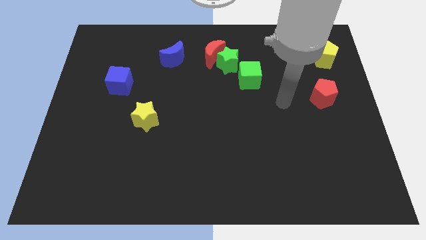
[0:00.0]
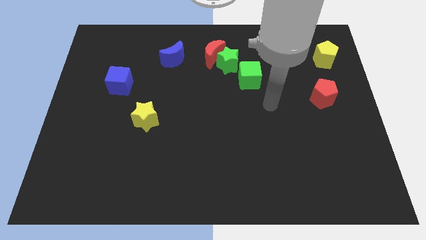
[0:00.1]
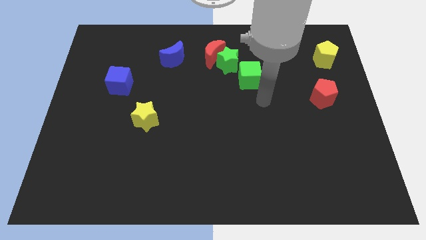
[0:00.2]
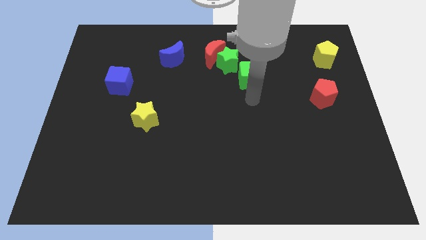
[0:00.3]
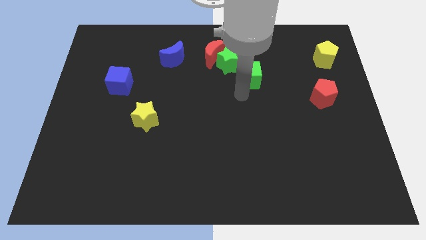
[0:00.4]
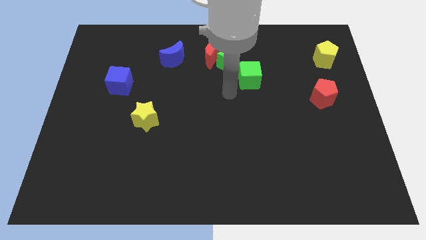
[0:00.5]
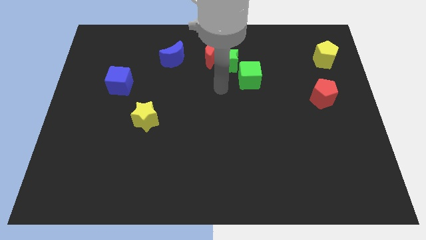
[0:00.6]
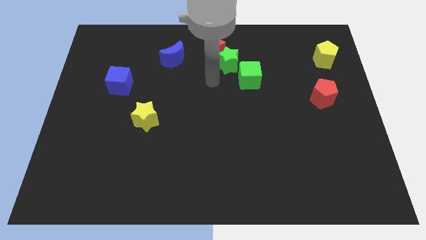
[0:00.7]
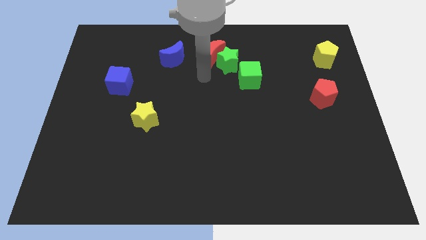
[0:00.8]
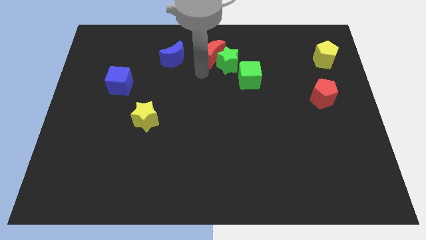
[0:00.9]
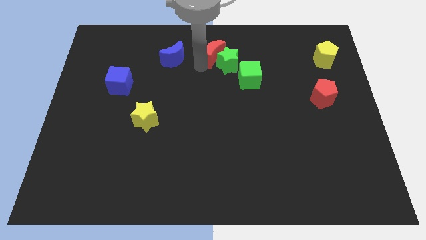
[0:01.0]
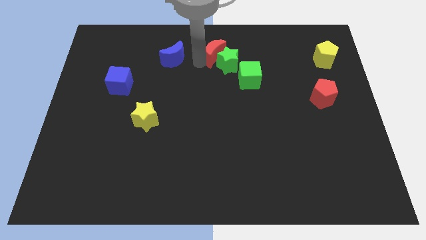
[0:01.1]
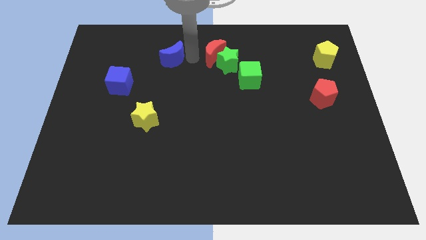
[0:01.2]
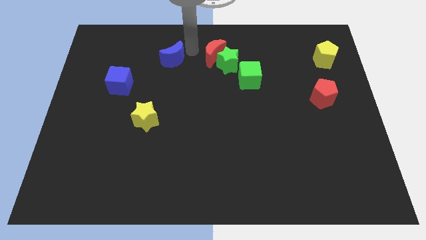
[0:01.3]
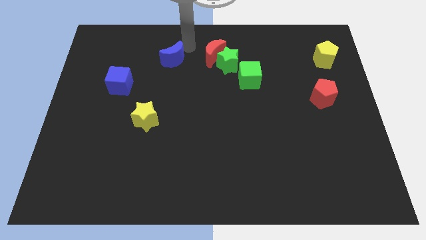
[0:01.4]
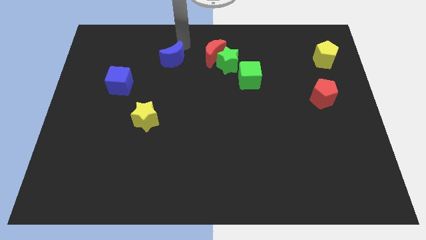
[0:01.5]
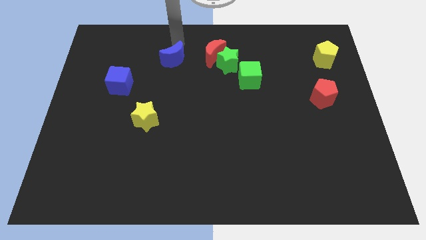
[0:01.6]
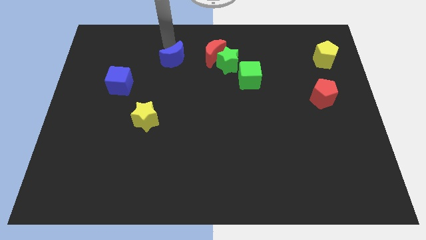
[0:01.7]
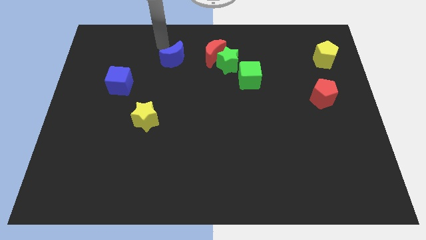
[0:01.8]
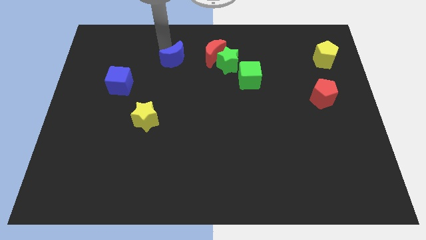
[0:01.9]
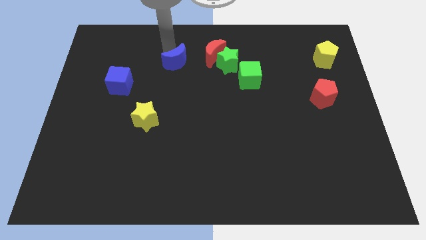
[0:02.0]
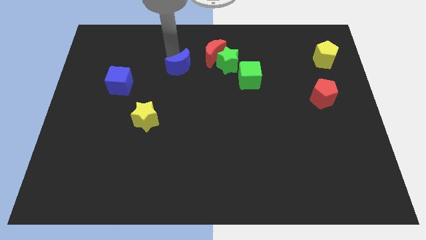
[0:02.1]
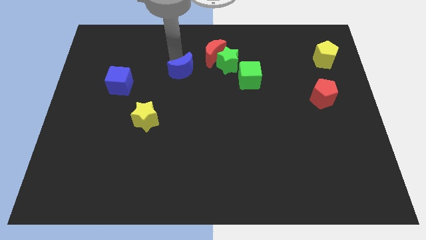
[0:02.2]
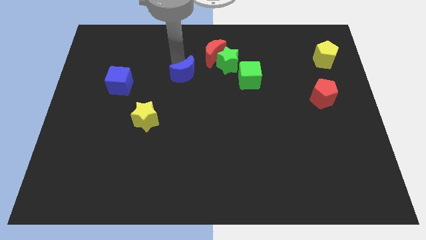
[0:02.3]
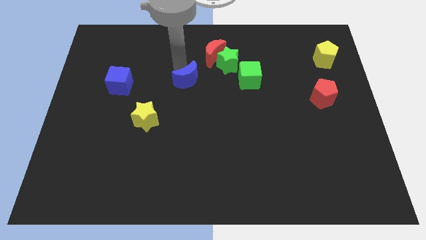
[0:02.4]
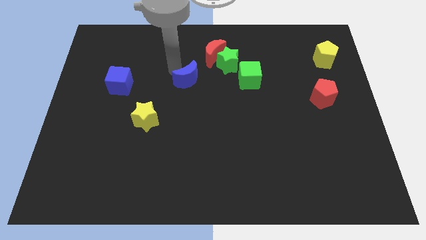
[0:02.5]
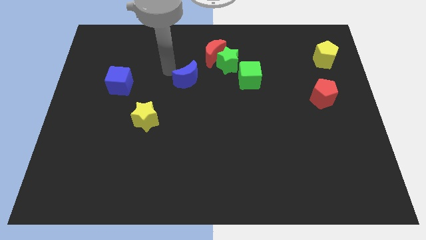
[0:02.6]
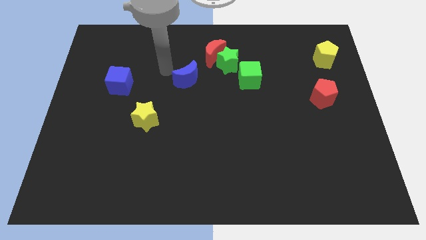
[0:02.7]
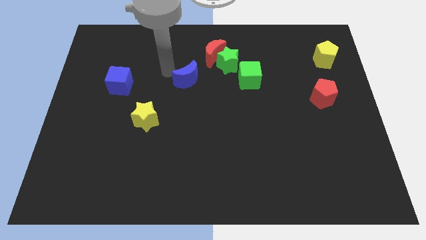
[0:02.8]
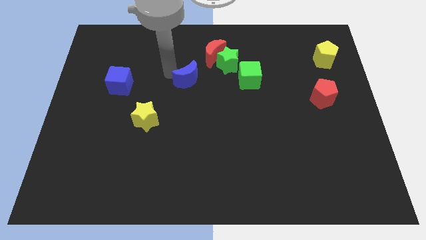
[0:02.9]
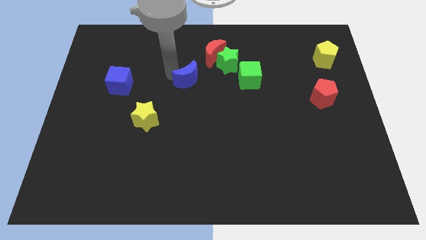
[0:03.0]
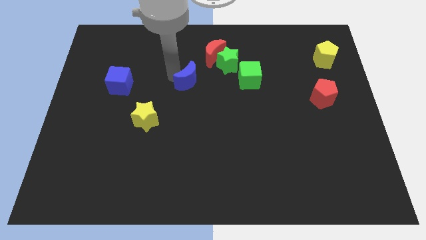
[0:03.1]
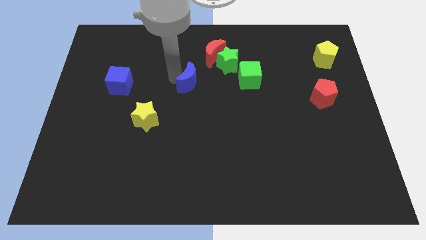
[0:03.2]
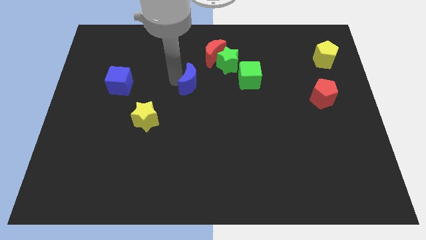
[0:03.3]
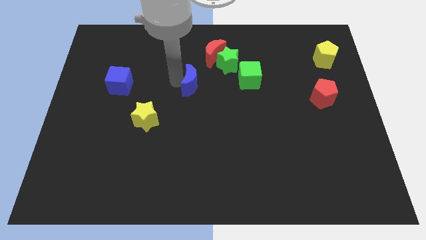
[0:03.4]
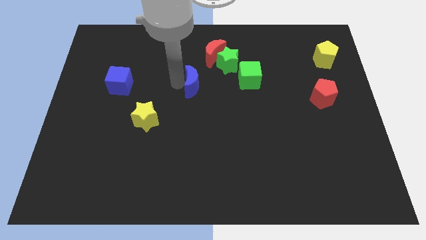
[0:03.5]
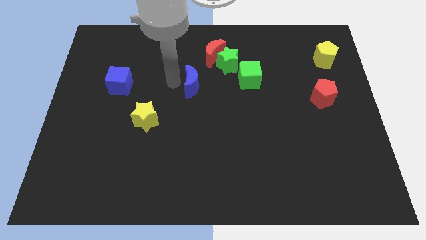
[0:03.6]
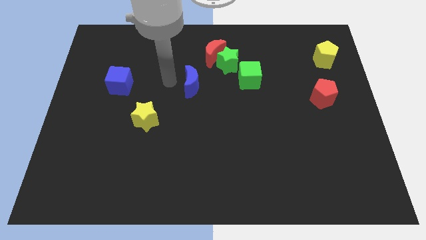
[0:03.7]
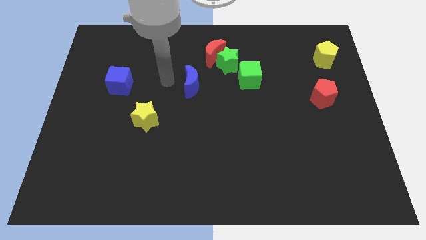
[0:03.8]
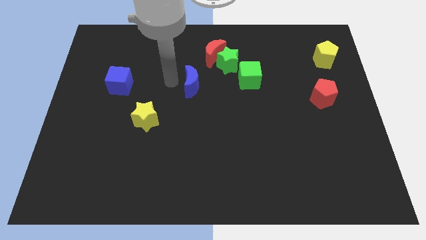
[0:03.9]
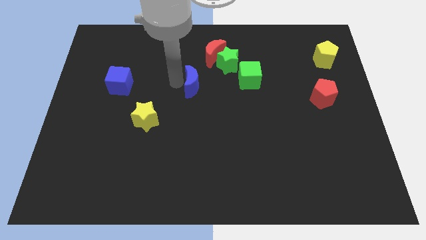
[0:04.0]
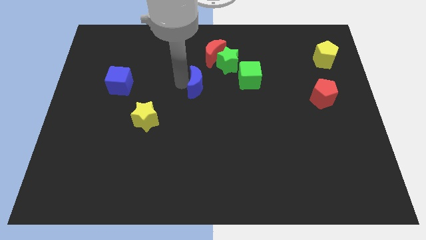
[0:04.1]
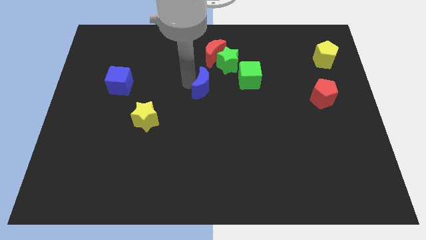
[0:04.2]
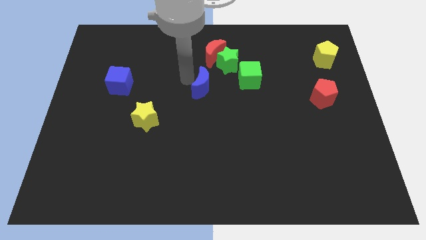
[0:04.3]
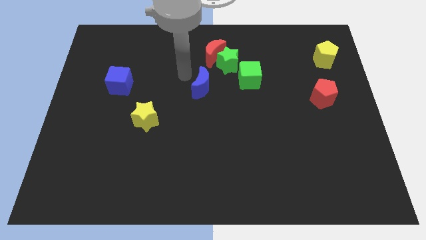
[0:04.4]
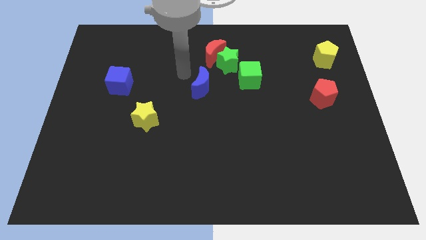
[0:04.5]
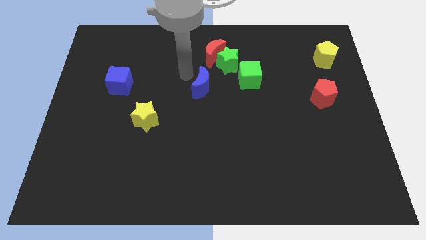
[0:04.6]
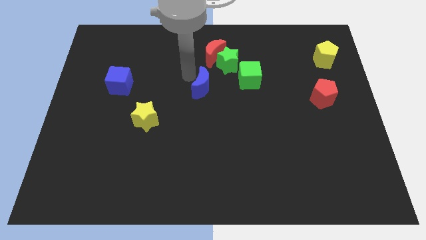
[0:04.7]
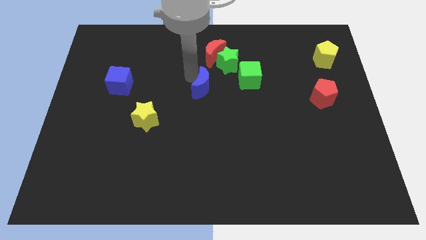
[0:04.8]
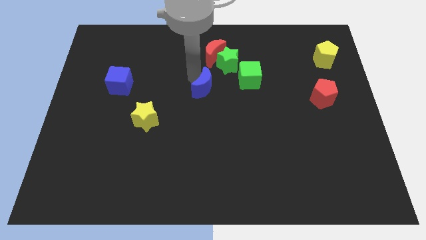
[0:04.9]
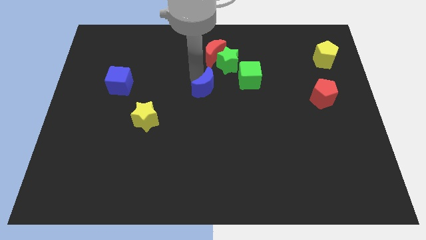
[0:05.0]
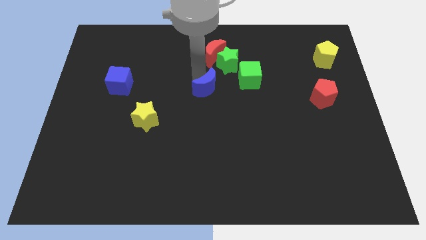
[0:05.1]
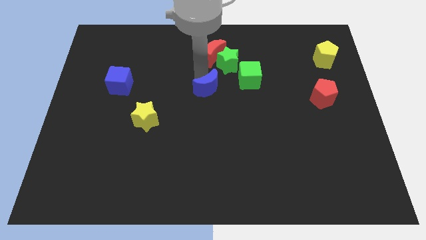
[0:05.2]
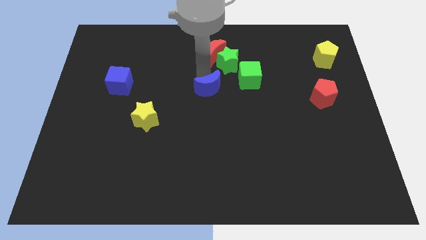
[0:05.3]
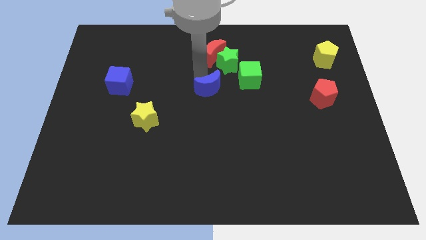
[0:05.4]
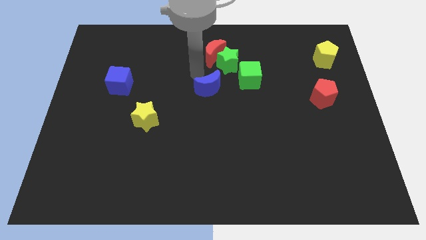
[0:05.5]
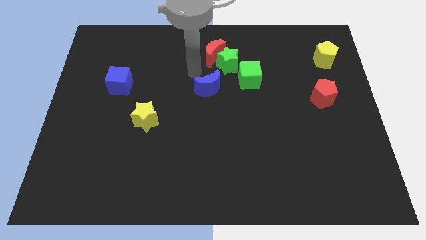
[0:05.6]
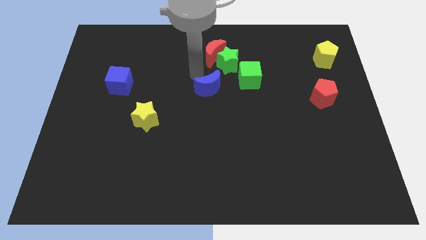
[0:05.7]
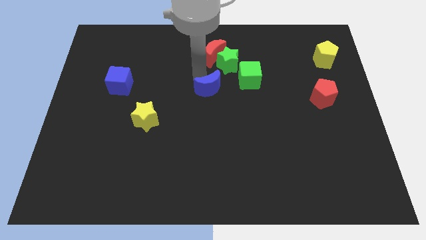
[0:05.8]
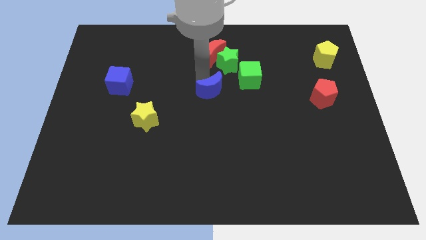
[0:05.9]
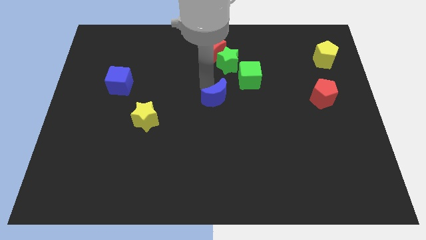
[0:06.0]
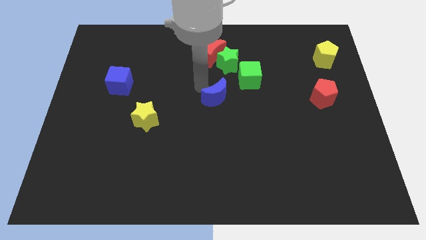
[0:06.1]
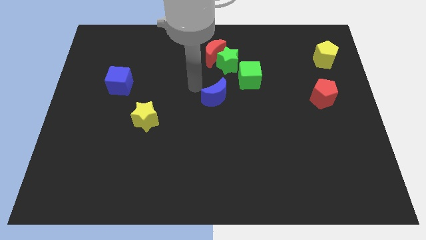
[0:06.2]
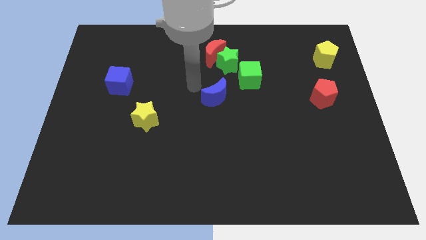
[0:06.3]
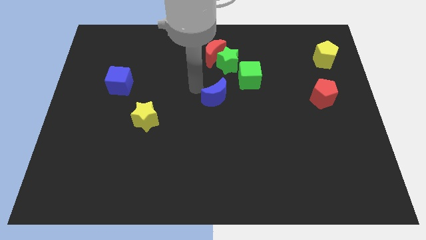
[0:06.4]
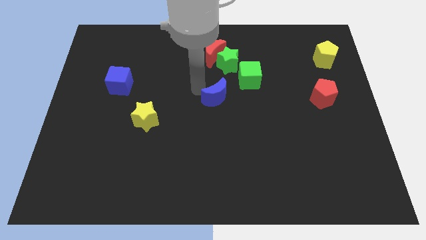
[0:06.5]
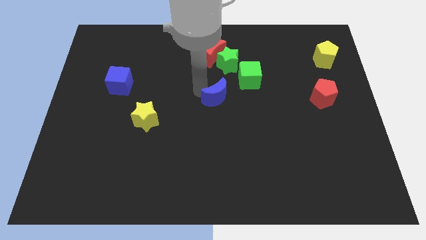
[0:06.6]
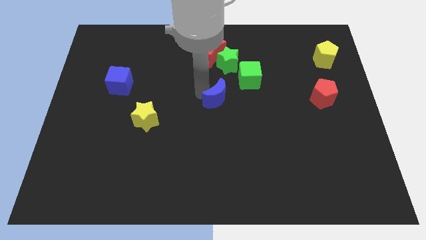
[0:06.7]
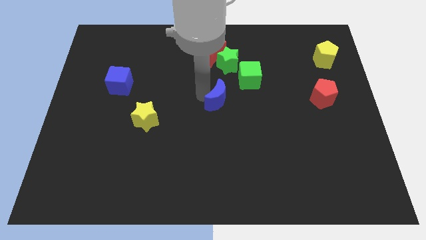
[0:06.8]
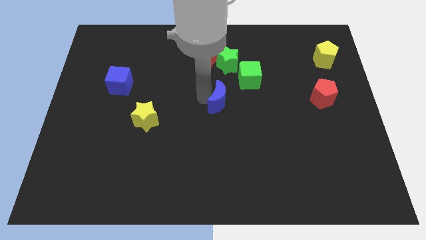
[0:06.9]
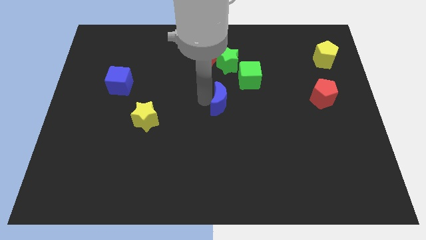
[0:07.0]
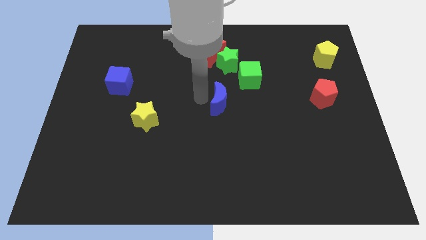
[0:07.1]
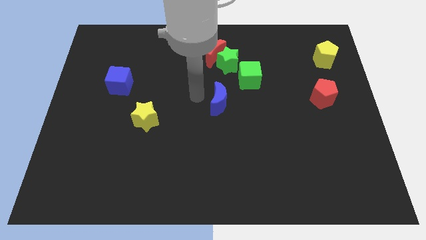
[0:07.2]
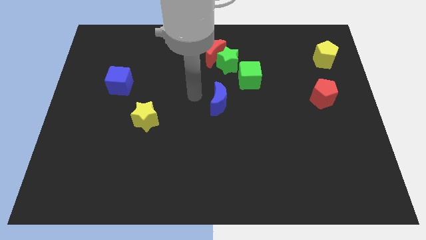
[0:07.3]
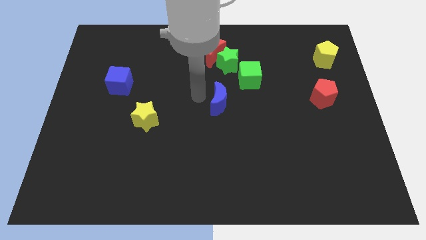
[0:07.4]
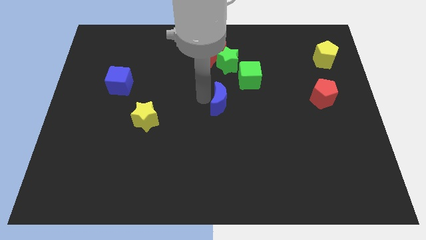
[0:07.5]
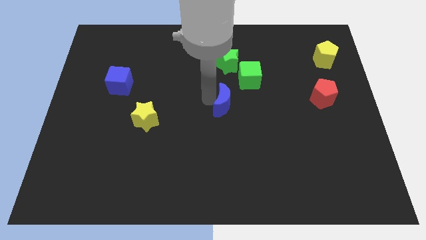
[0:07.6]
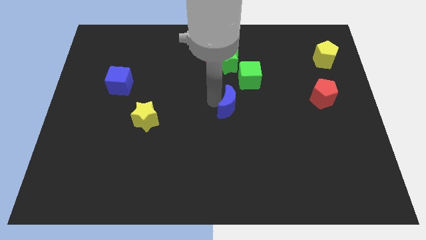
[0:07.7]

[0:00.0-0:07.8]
push the blue moon down and right diagonally

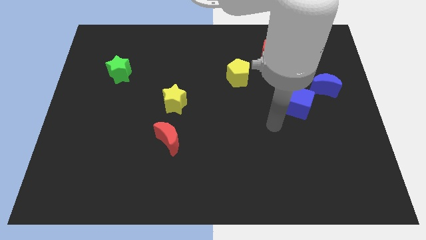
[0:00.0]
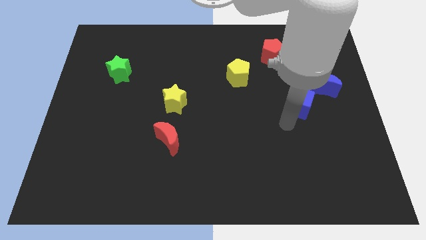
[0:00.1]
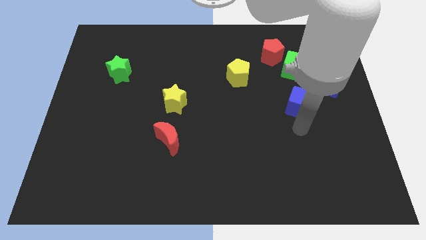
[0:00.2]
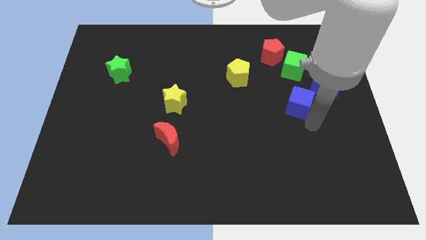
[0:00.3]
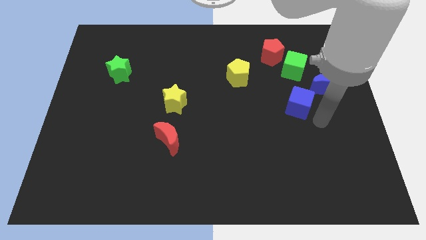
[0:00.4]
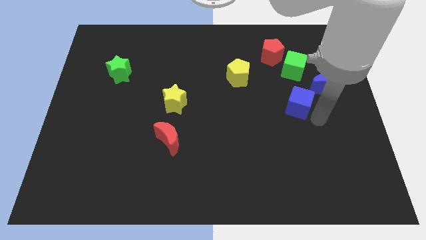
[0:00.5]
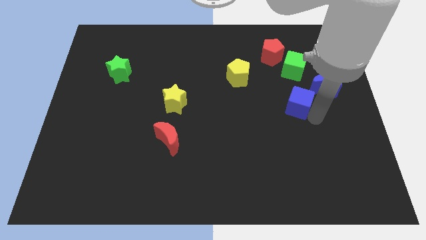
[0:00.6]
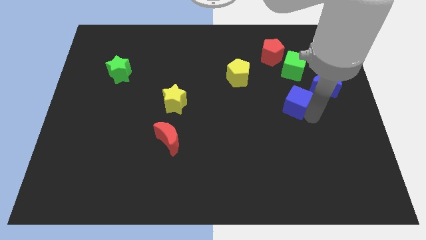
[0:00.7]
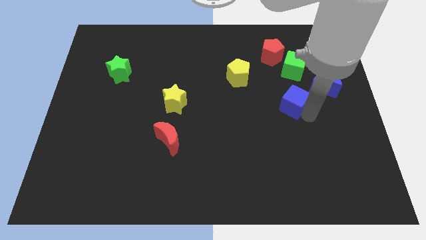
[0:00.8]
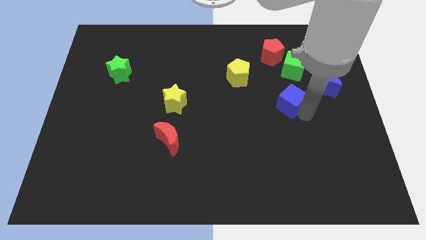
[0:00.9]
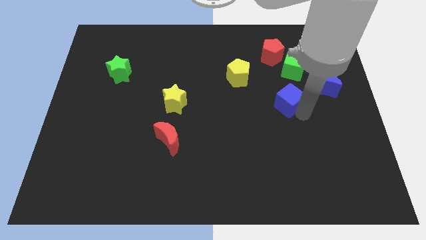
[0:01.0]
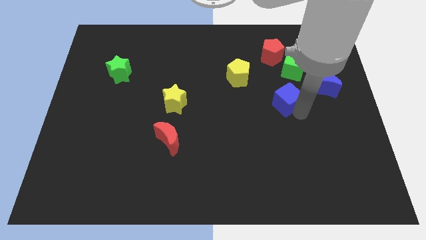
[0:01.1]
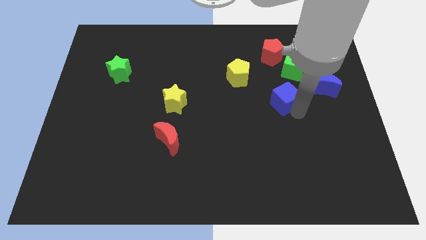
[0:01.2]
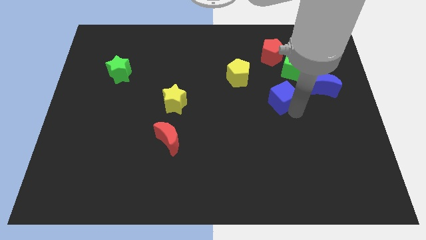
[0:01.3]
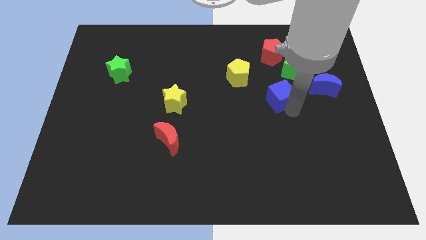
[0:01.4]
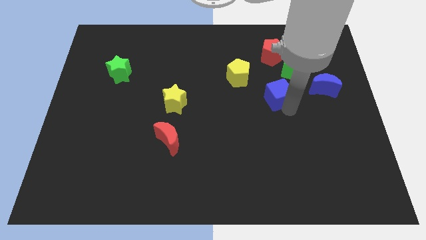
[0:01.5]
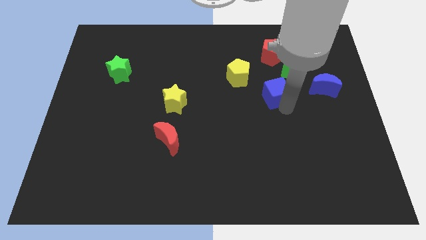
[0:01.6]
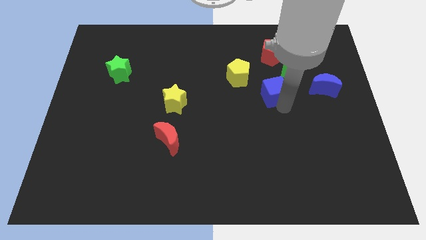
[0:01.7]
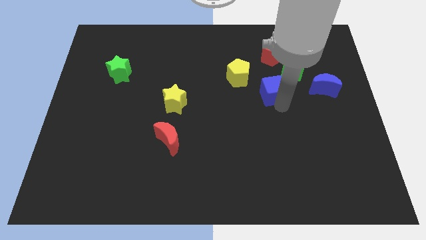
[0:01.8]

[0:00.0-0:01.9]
push the blue cube a little diagonally up and to the left
